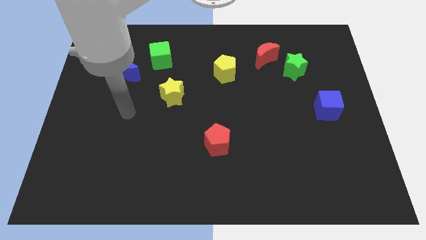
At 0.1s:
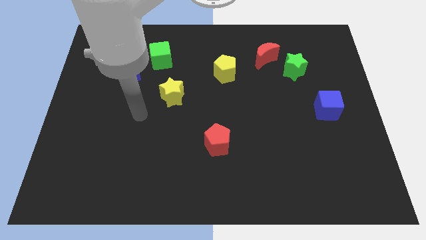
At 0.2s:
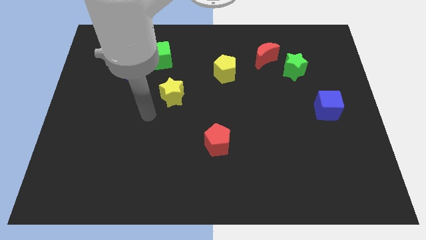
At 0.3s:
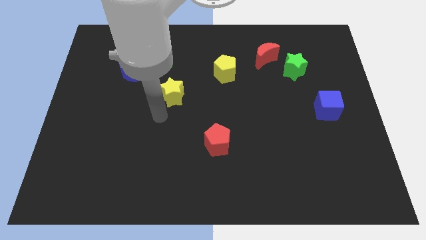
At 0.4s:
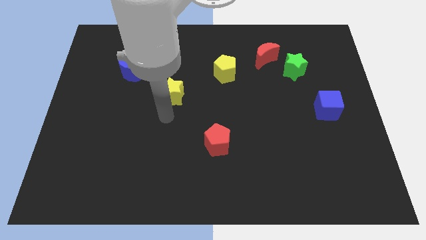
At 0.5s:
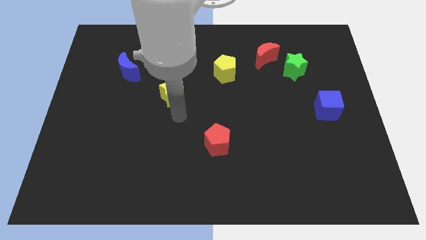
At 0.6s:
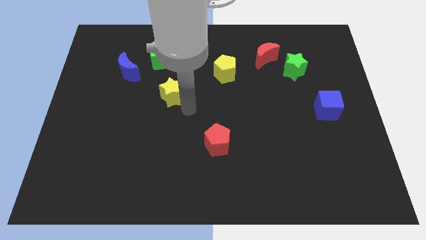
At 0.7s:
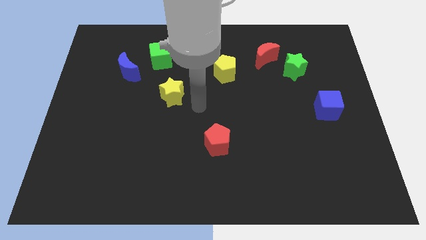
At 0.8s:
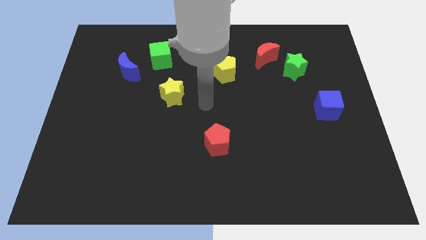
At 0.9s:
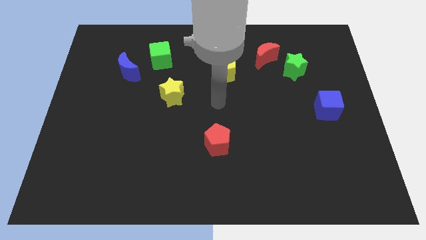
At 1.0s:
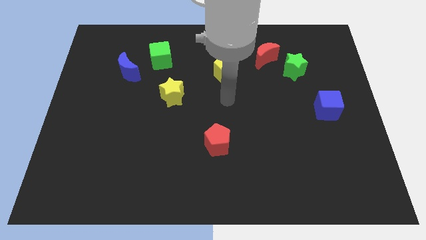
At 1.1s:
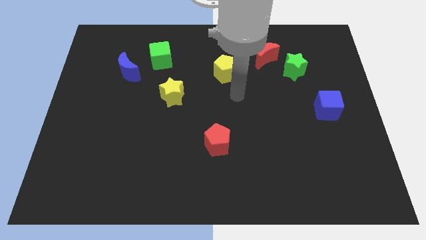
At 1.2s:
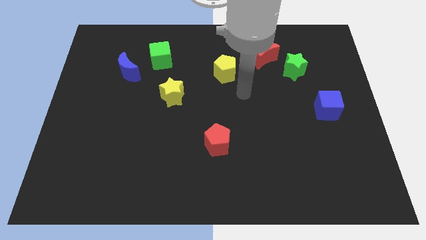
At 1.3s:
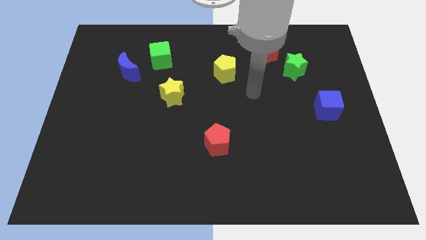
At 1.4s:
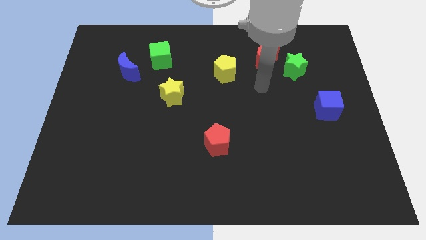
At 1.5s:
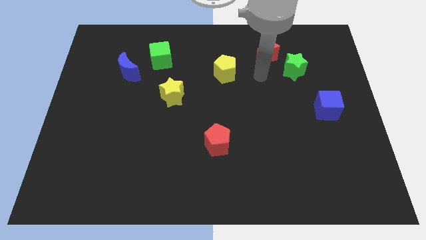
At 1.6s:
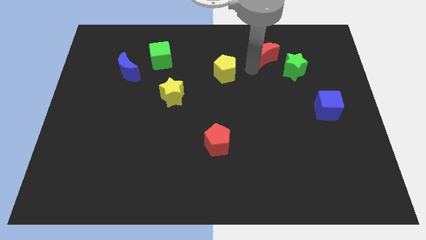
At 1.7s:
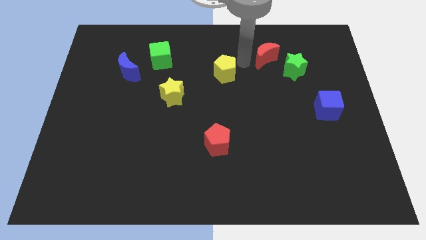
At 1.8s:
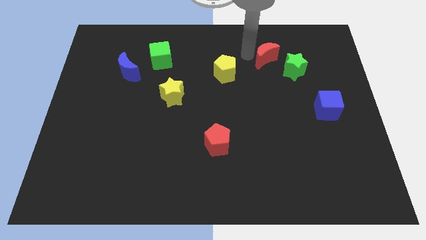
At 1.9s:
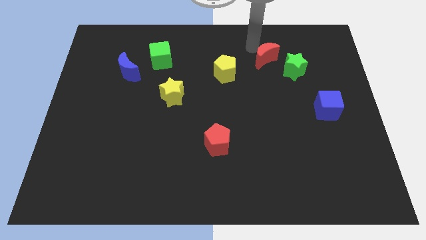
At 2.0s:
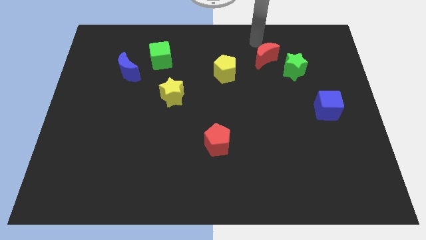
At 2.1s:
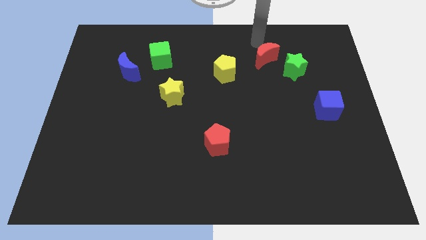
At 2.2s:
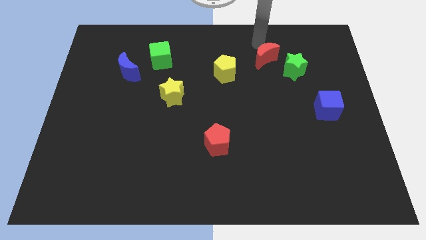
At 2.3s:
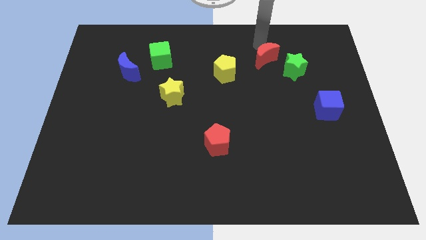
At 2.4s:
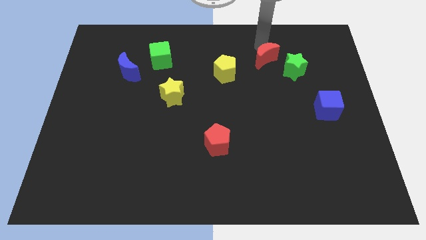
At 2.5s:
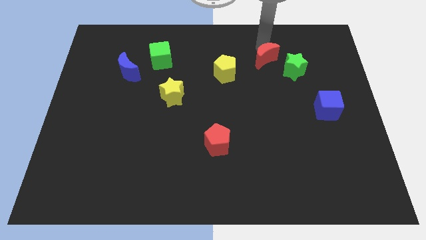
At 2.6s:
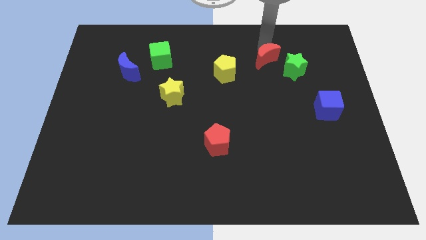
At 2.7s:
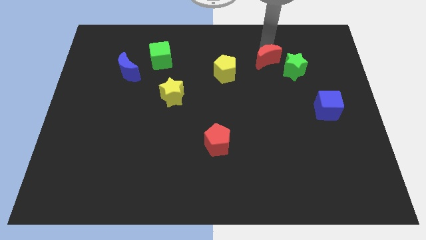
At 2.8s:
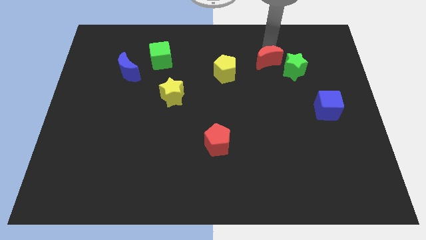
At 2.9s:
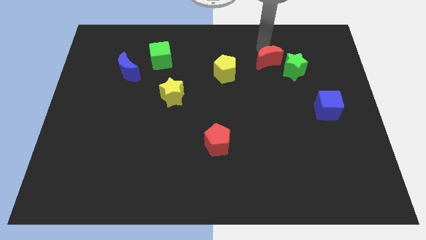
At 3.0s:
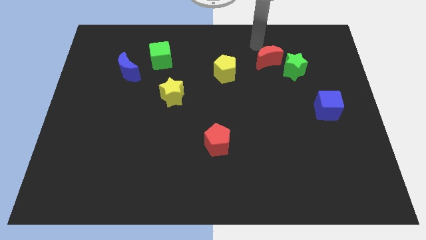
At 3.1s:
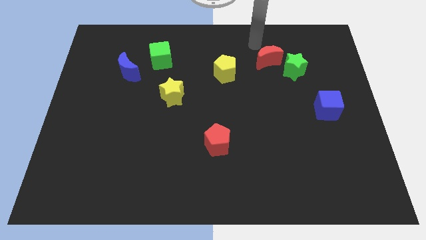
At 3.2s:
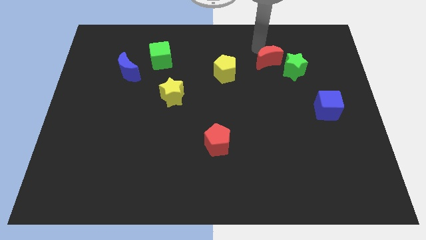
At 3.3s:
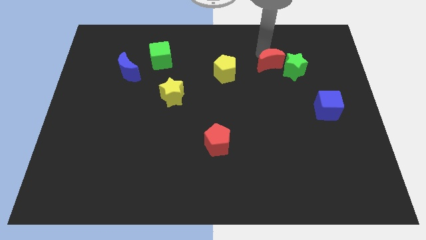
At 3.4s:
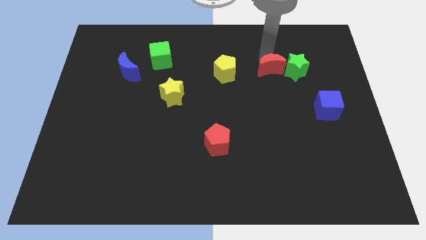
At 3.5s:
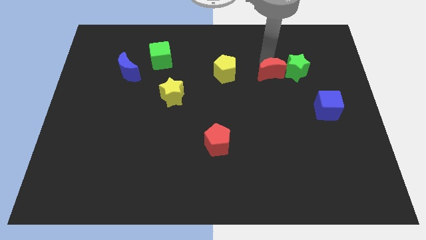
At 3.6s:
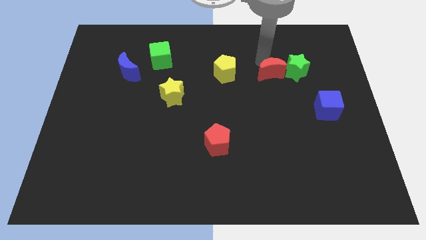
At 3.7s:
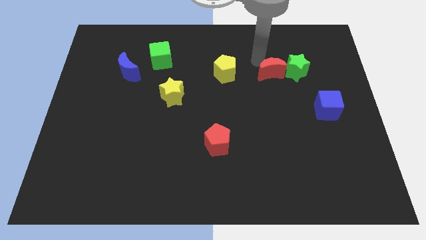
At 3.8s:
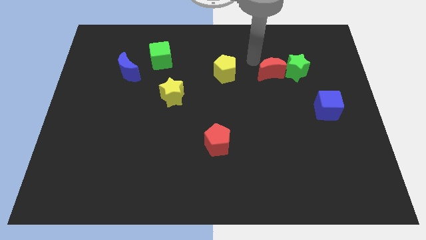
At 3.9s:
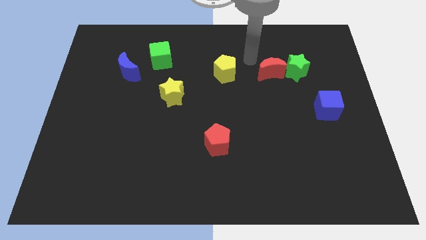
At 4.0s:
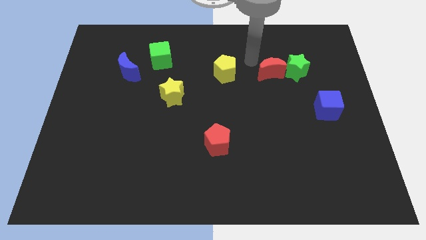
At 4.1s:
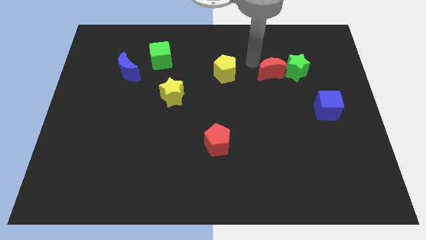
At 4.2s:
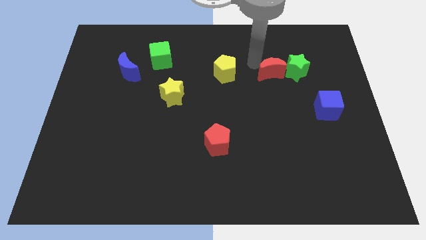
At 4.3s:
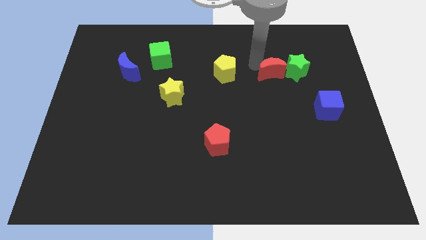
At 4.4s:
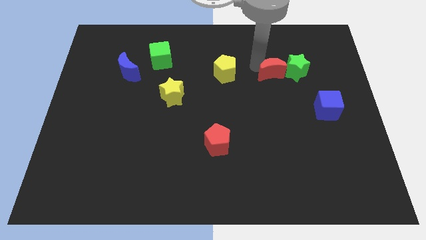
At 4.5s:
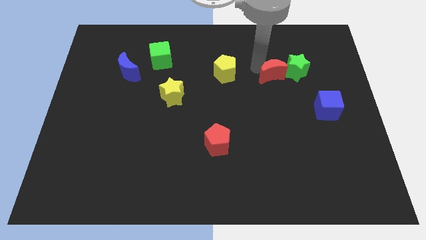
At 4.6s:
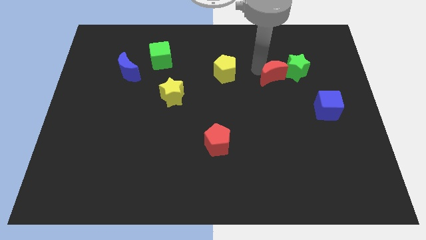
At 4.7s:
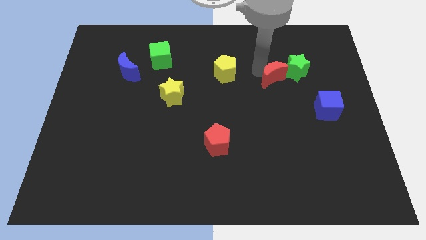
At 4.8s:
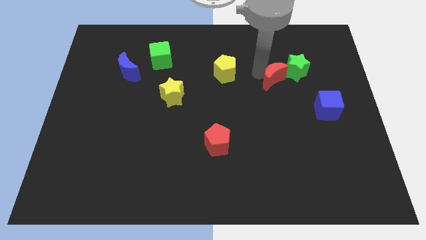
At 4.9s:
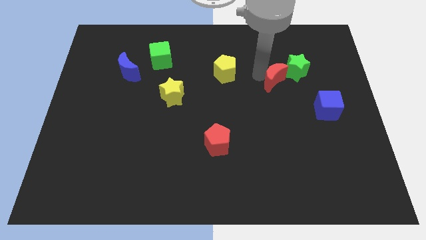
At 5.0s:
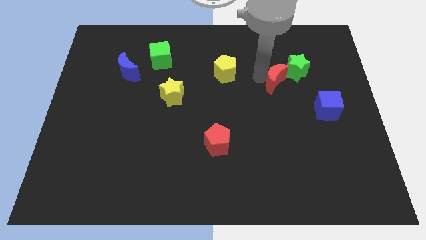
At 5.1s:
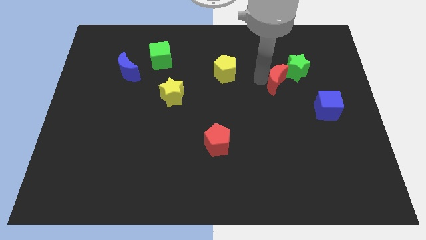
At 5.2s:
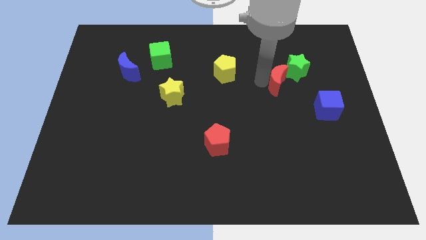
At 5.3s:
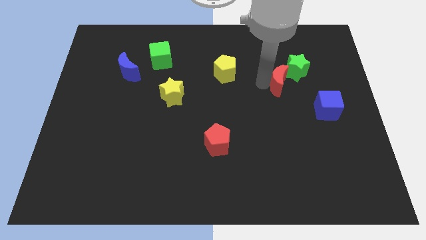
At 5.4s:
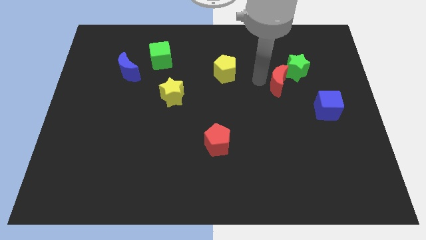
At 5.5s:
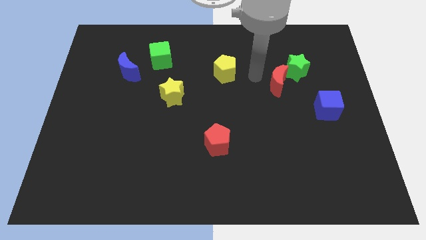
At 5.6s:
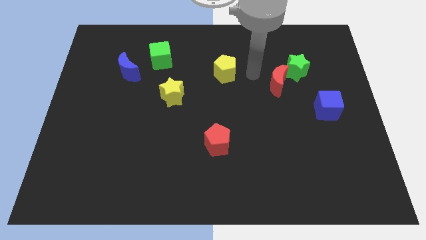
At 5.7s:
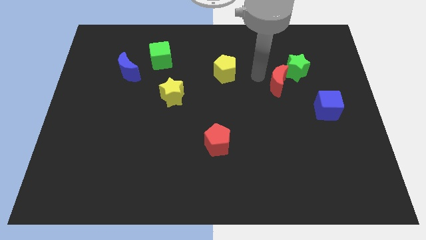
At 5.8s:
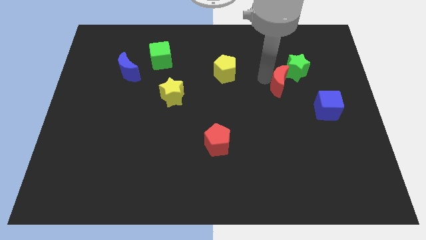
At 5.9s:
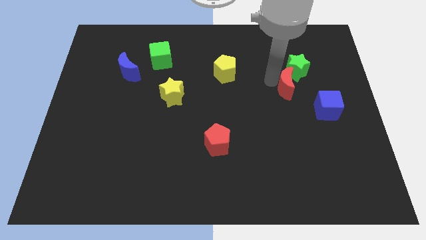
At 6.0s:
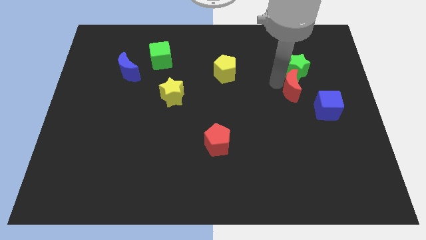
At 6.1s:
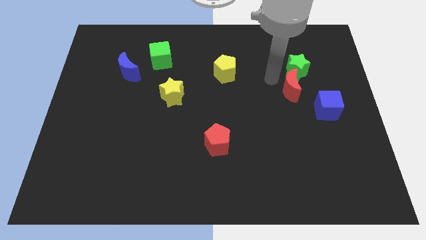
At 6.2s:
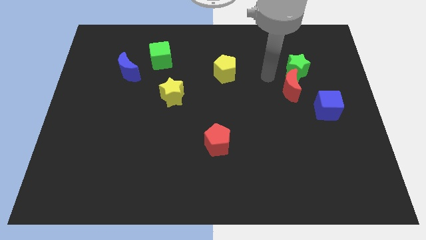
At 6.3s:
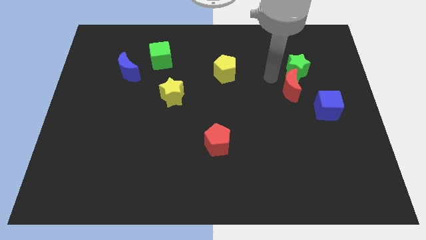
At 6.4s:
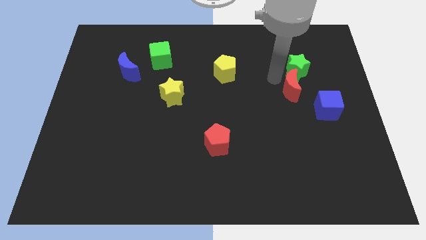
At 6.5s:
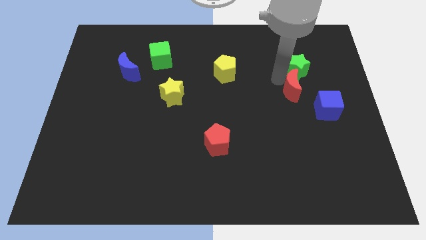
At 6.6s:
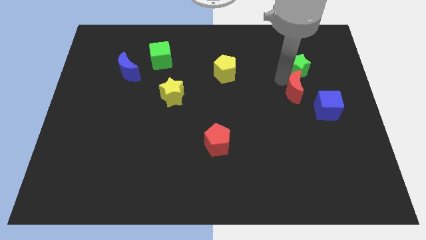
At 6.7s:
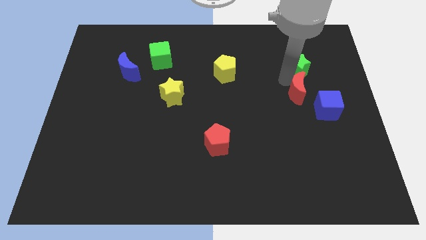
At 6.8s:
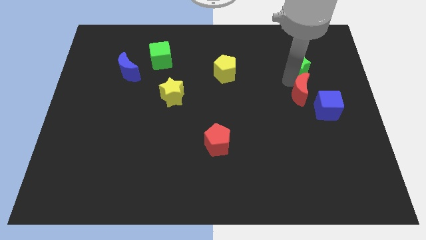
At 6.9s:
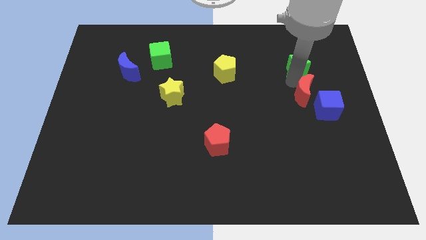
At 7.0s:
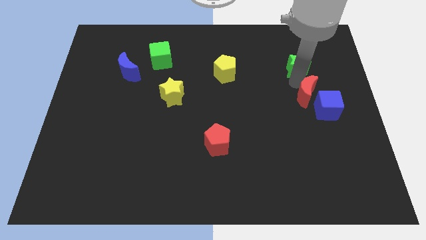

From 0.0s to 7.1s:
put the red moon to the blue cube
